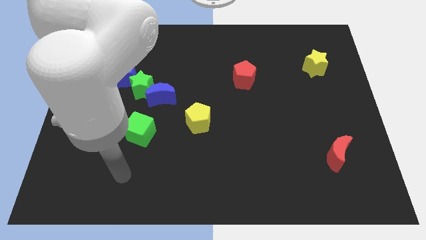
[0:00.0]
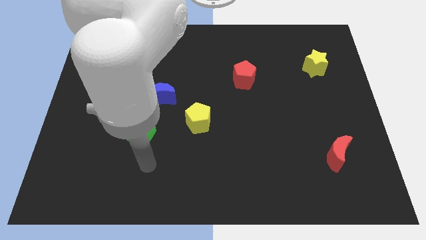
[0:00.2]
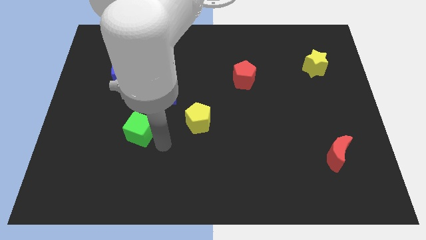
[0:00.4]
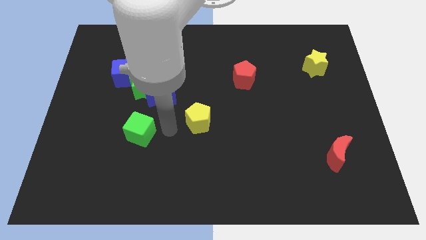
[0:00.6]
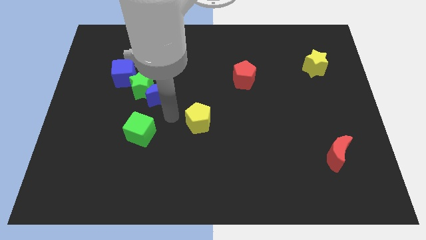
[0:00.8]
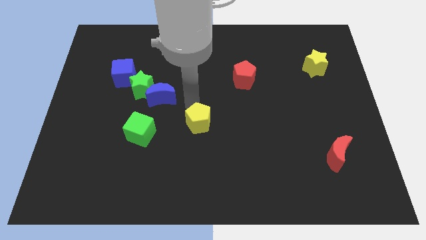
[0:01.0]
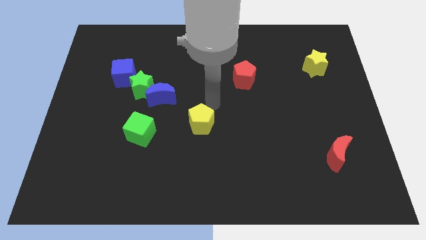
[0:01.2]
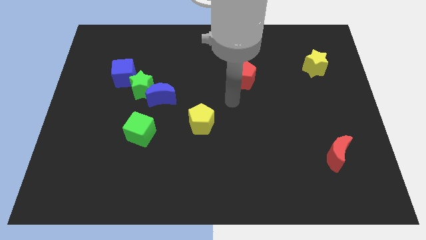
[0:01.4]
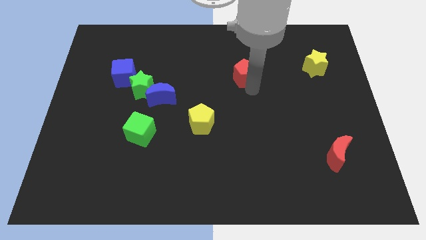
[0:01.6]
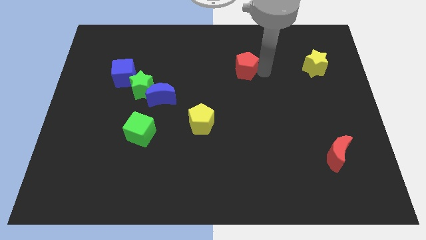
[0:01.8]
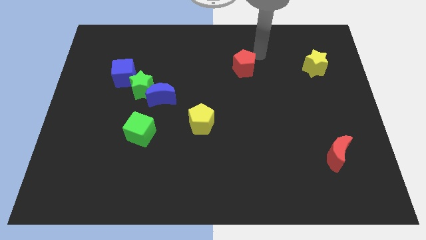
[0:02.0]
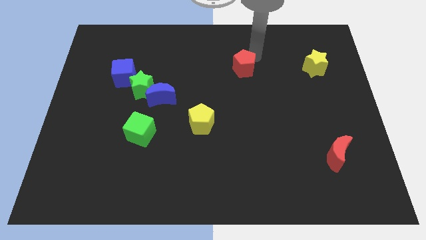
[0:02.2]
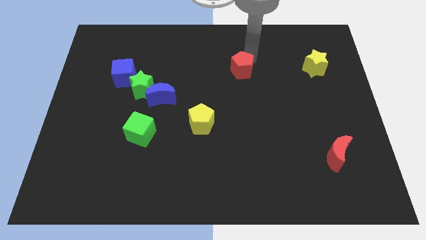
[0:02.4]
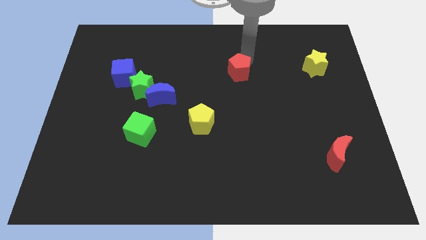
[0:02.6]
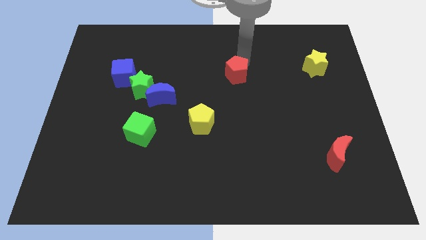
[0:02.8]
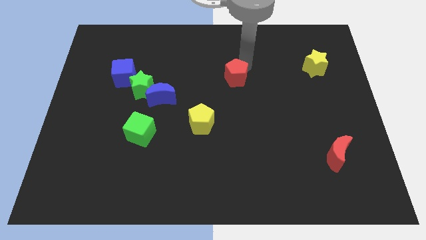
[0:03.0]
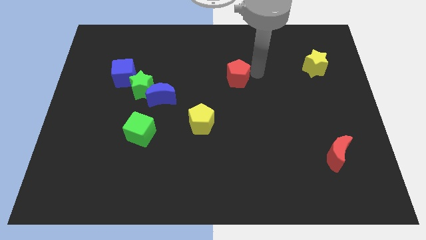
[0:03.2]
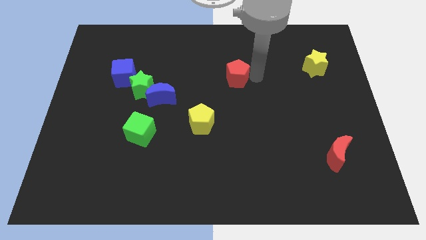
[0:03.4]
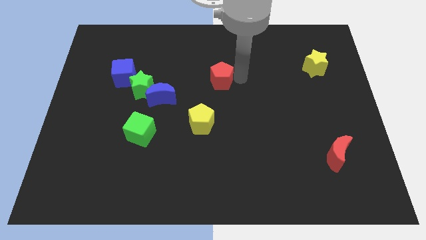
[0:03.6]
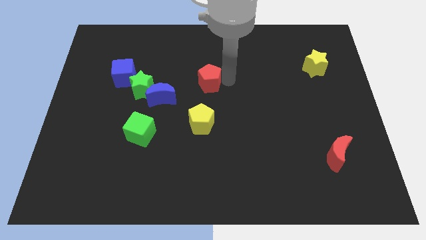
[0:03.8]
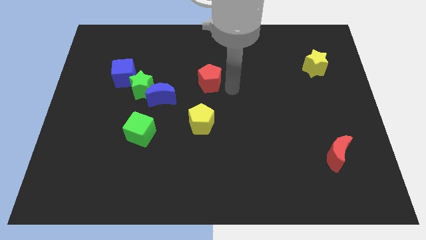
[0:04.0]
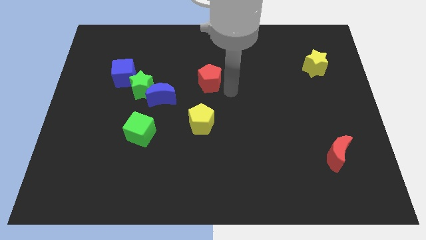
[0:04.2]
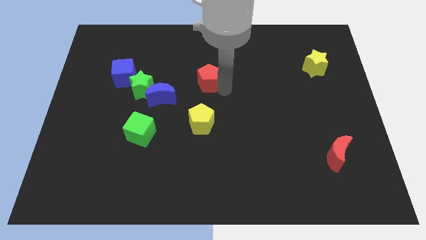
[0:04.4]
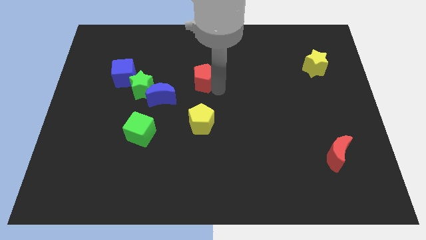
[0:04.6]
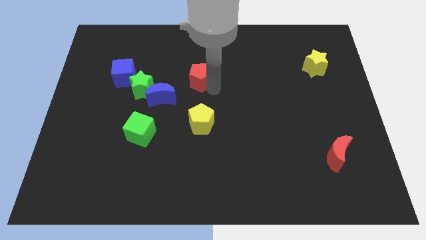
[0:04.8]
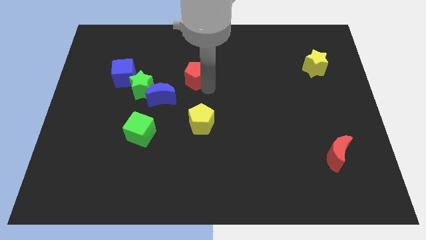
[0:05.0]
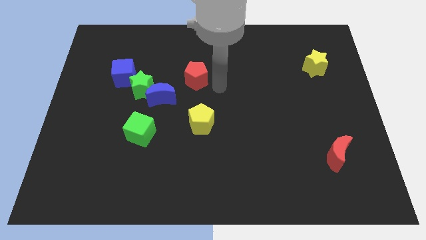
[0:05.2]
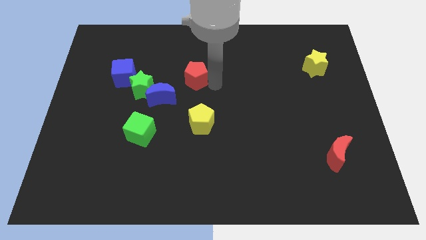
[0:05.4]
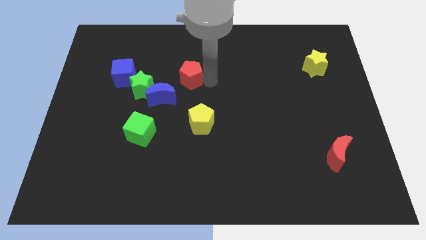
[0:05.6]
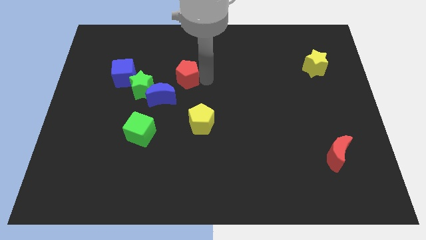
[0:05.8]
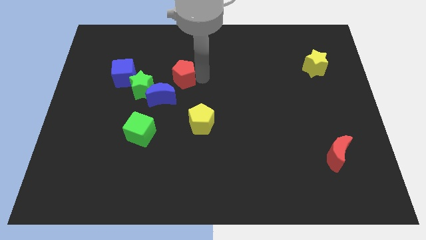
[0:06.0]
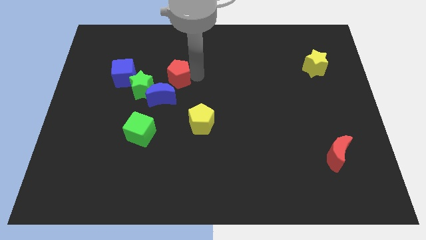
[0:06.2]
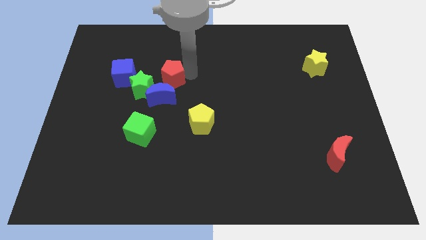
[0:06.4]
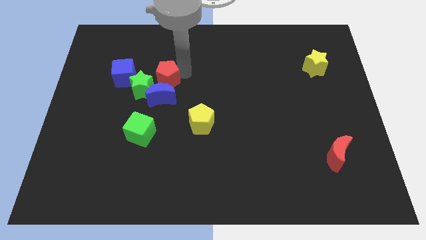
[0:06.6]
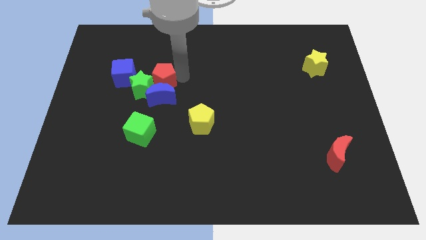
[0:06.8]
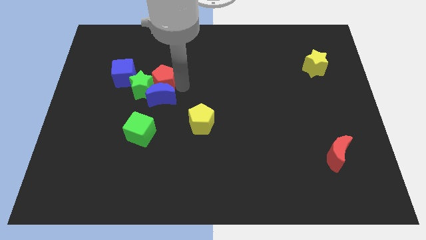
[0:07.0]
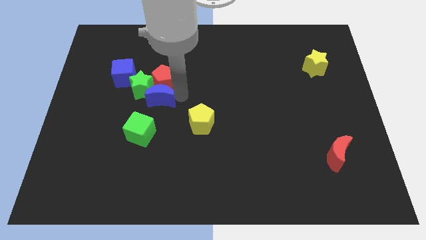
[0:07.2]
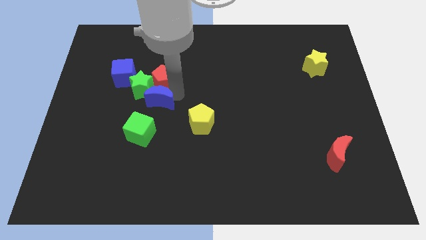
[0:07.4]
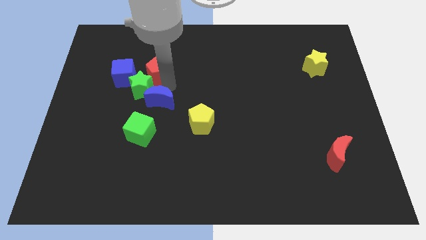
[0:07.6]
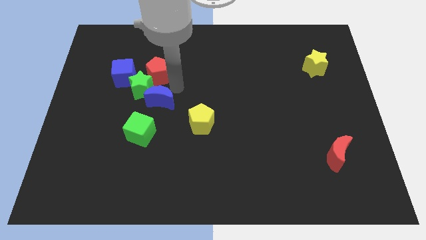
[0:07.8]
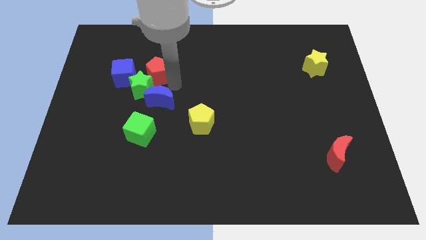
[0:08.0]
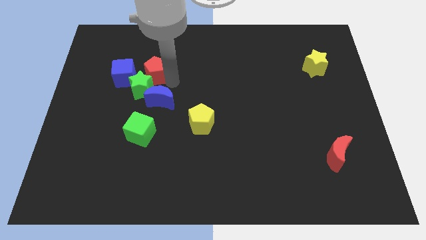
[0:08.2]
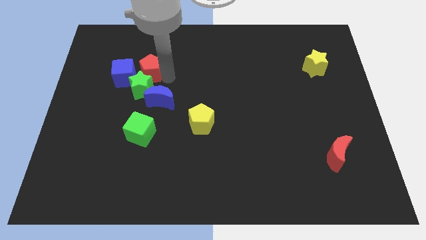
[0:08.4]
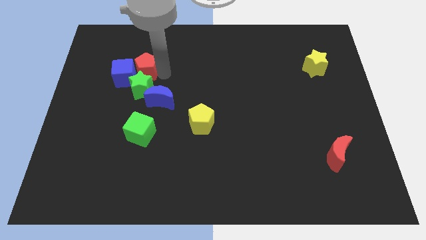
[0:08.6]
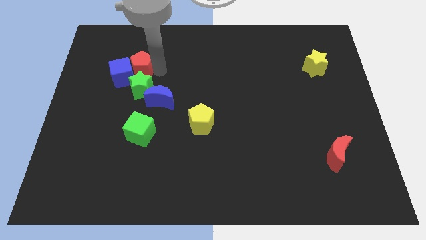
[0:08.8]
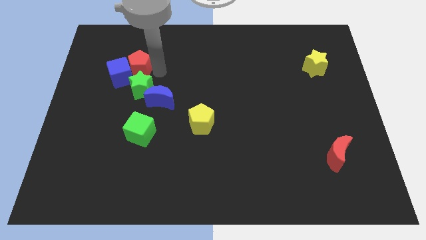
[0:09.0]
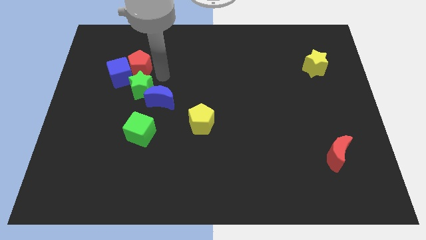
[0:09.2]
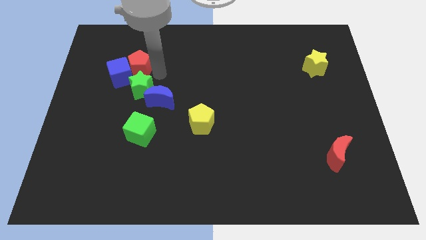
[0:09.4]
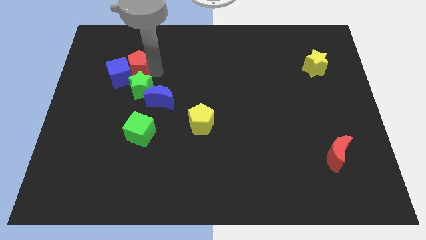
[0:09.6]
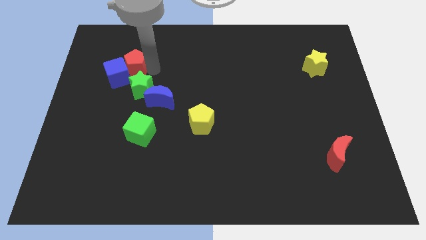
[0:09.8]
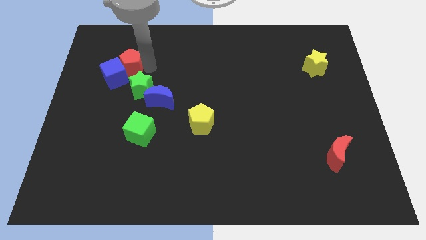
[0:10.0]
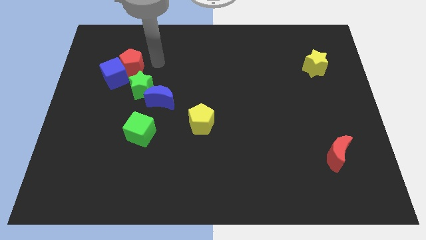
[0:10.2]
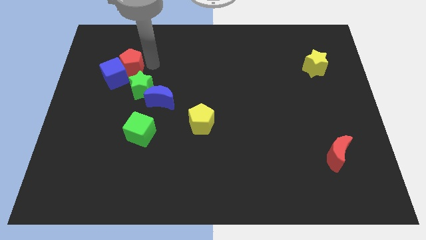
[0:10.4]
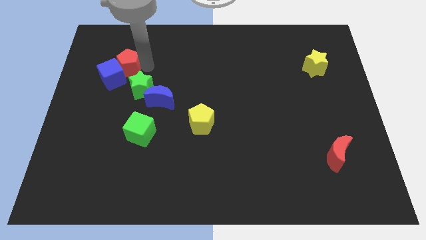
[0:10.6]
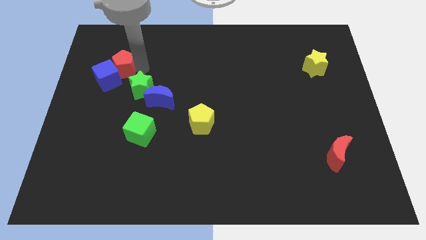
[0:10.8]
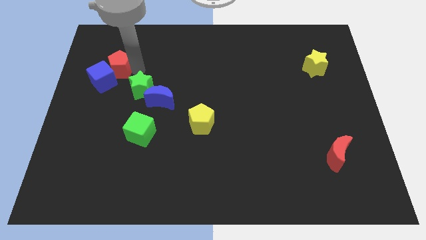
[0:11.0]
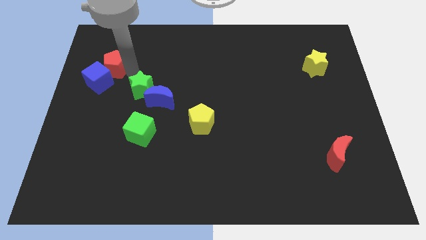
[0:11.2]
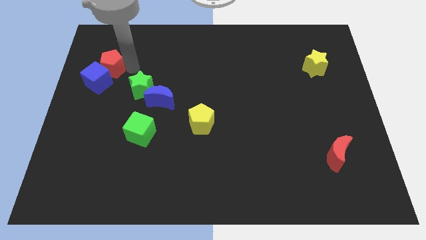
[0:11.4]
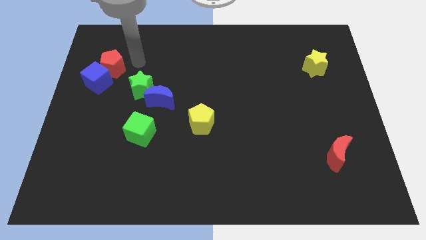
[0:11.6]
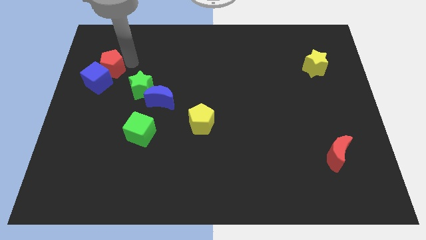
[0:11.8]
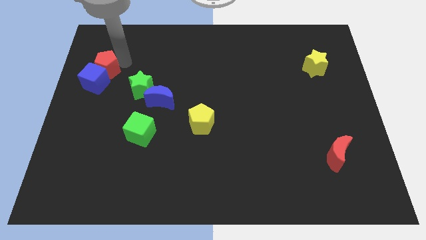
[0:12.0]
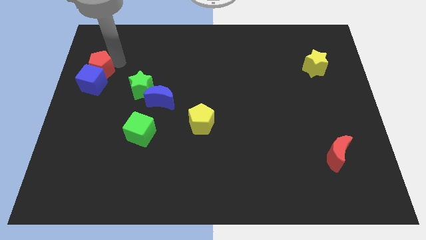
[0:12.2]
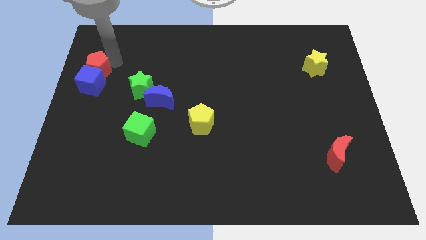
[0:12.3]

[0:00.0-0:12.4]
put the red pentagon to the left side
